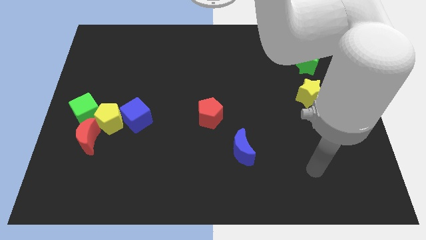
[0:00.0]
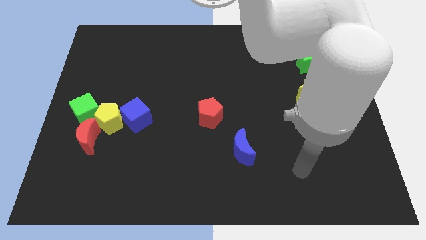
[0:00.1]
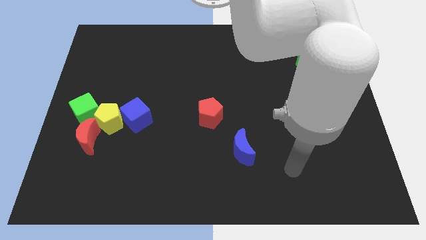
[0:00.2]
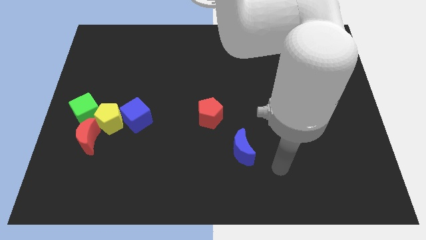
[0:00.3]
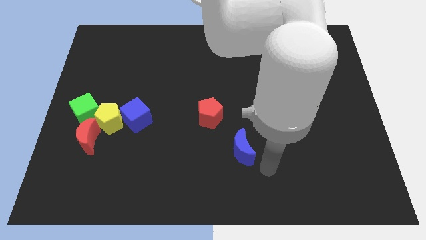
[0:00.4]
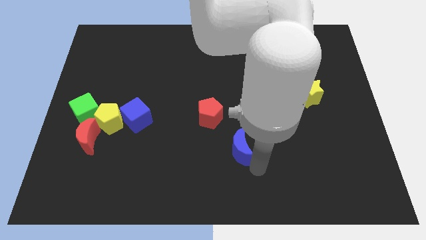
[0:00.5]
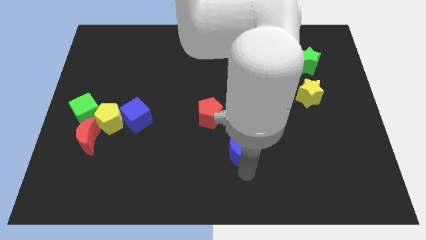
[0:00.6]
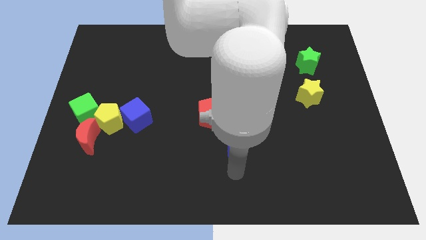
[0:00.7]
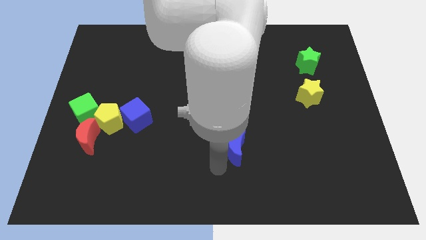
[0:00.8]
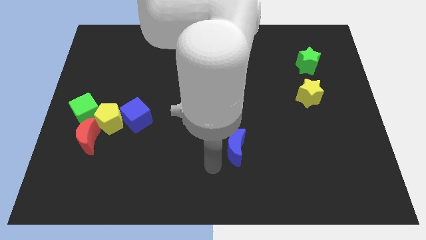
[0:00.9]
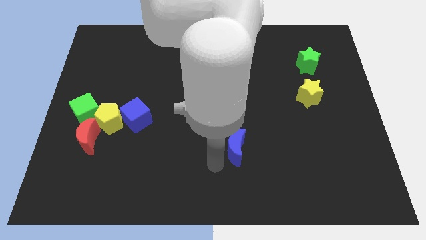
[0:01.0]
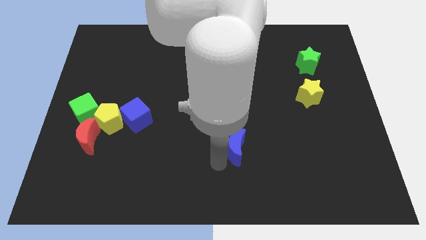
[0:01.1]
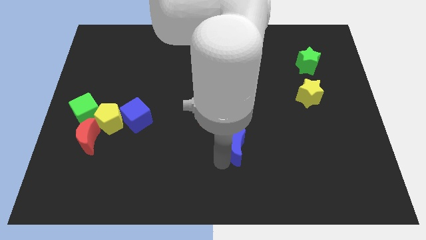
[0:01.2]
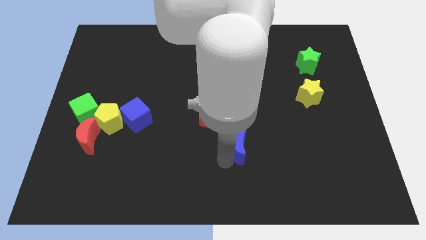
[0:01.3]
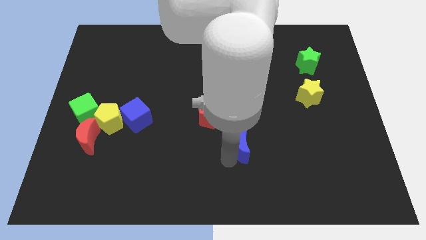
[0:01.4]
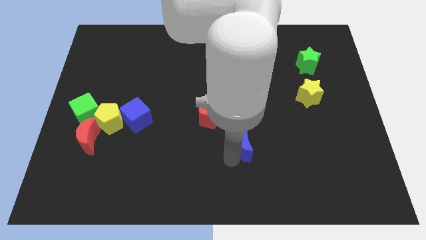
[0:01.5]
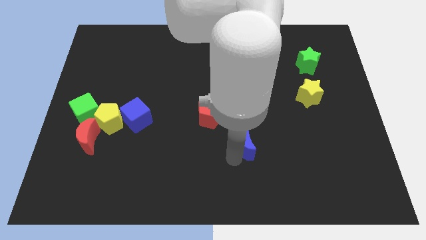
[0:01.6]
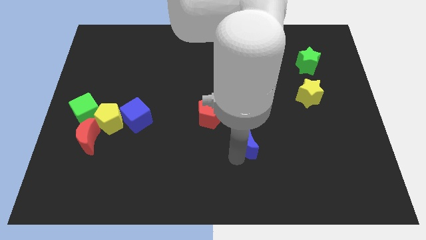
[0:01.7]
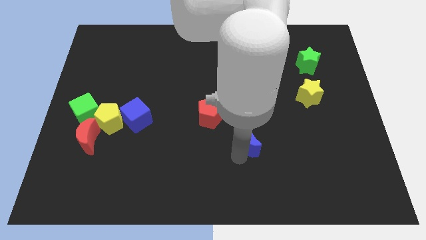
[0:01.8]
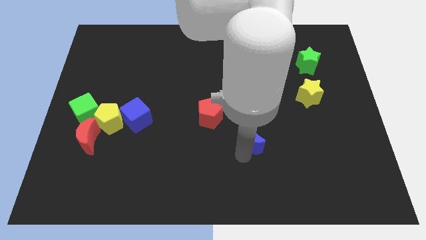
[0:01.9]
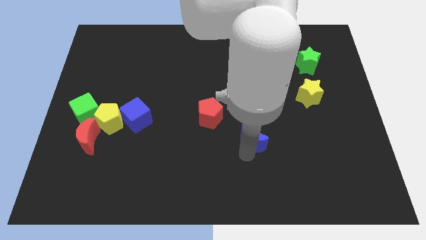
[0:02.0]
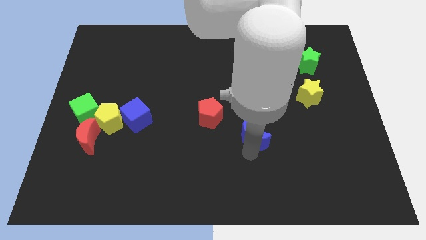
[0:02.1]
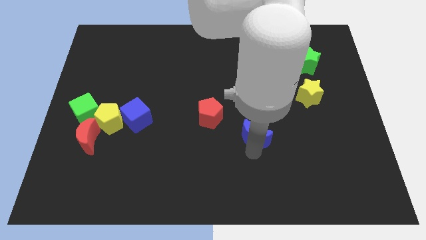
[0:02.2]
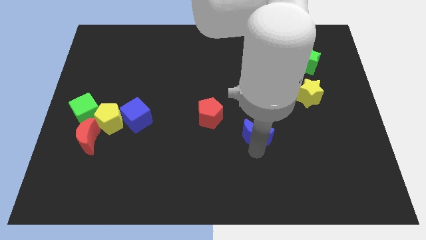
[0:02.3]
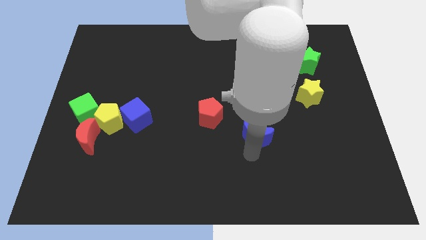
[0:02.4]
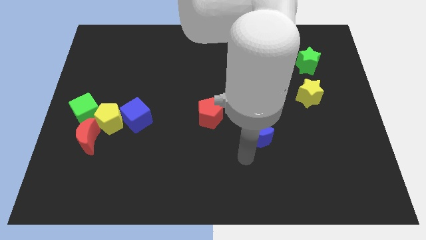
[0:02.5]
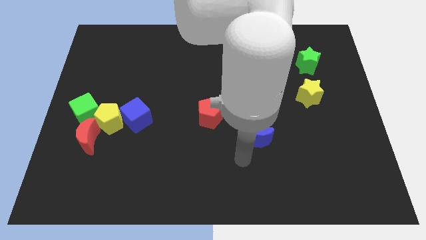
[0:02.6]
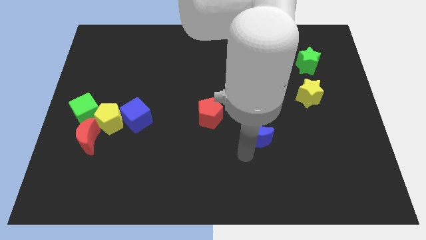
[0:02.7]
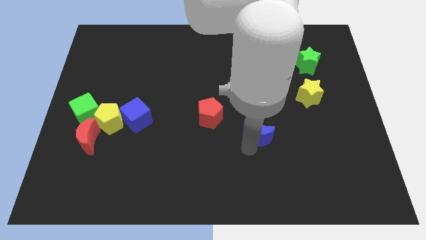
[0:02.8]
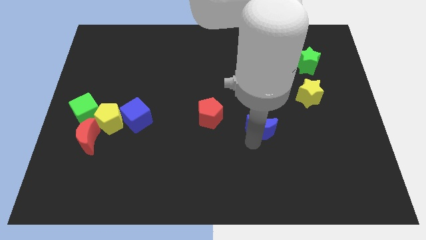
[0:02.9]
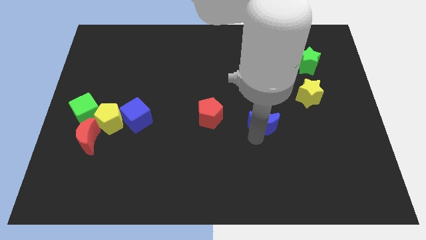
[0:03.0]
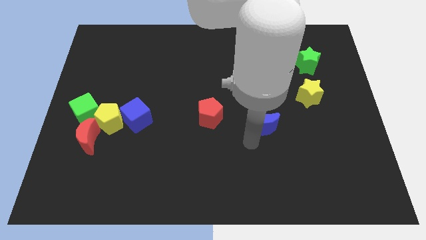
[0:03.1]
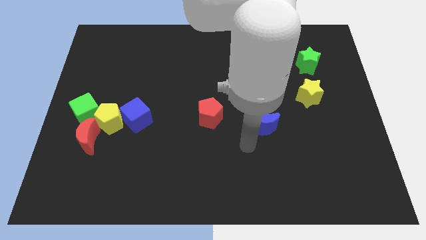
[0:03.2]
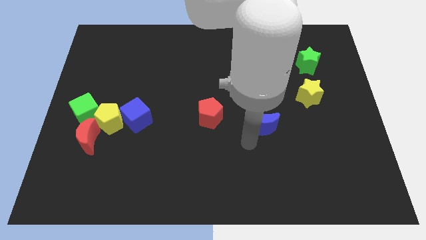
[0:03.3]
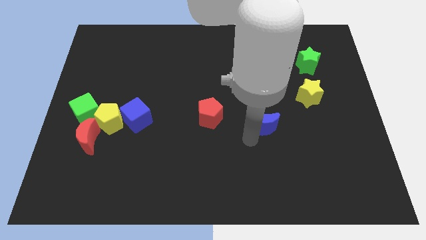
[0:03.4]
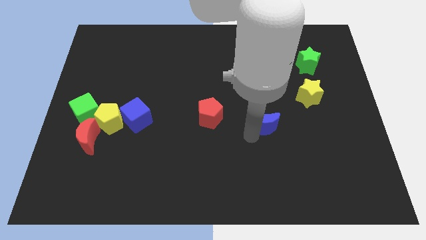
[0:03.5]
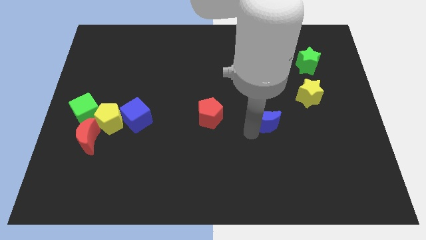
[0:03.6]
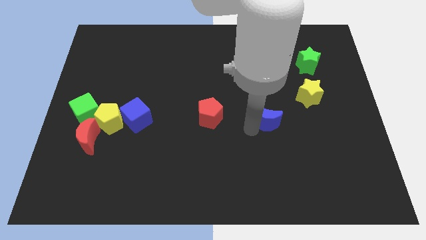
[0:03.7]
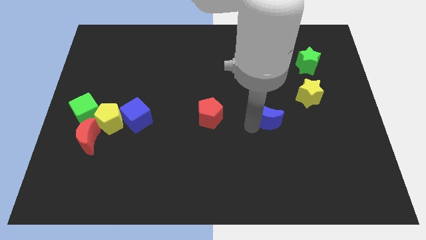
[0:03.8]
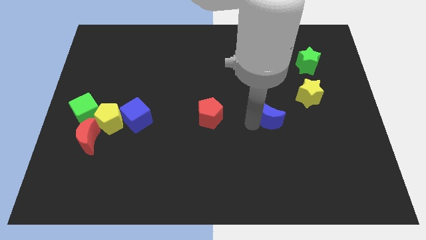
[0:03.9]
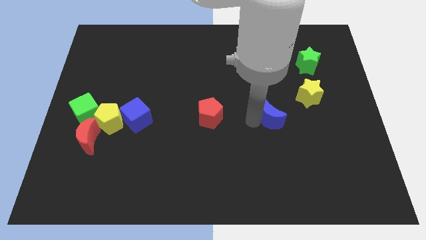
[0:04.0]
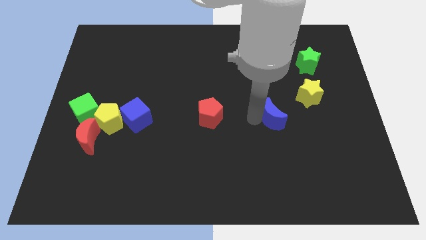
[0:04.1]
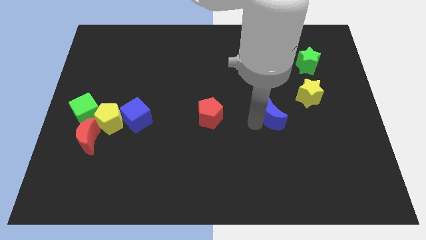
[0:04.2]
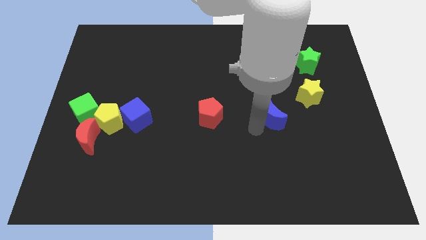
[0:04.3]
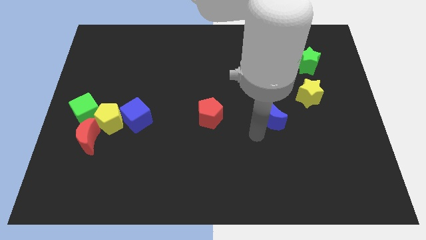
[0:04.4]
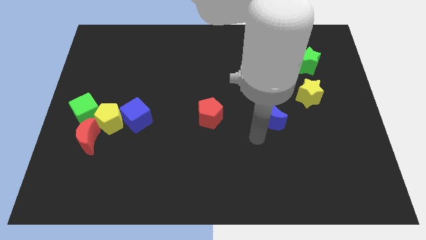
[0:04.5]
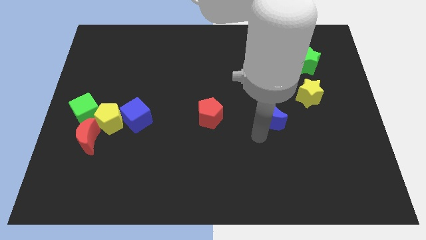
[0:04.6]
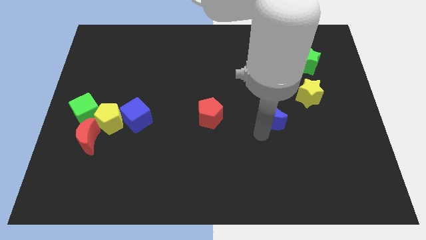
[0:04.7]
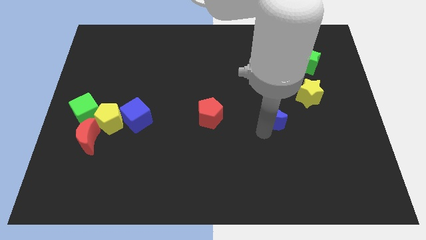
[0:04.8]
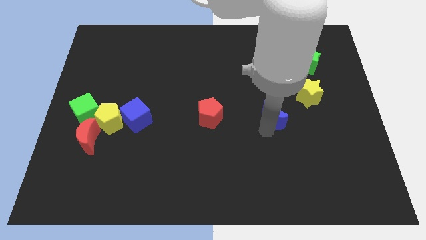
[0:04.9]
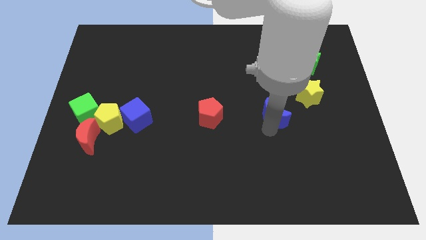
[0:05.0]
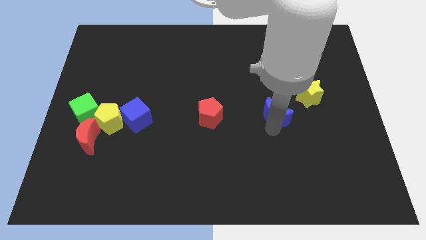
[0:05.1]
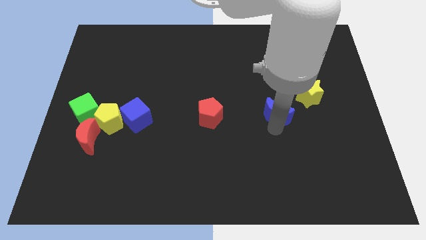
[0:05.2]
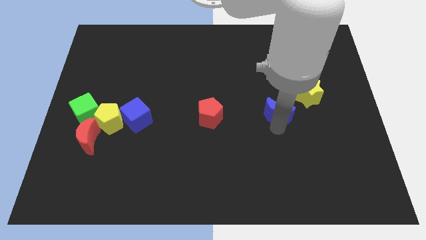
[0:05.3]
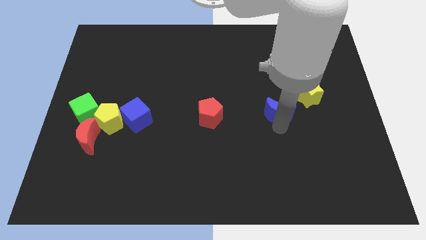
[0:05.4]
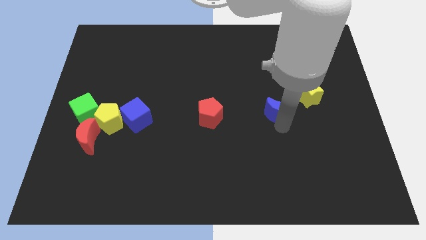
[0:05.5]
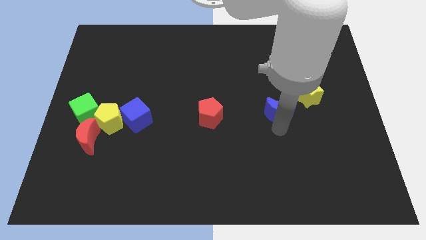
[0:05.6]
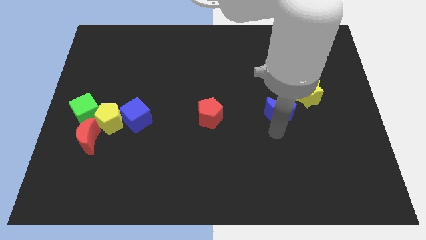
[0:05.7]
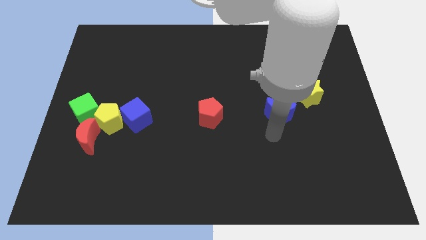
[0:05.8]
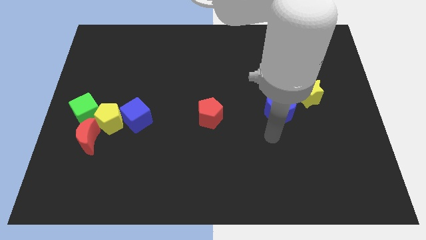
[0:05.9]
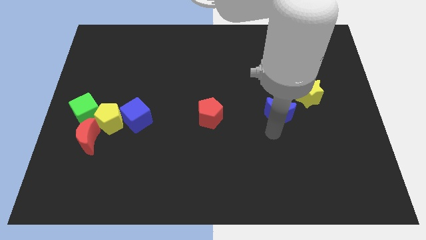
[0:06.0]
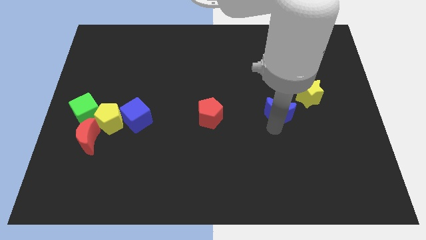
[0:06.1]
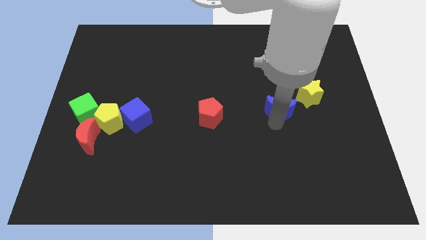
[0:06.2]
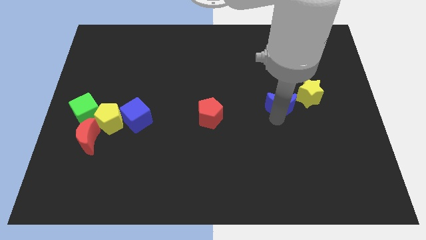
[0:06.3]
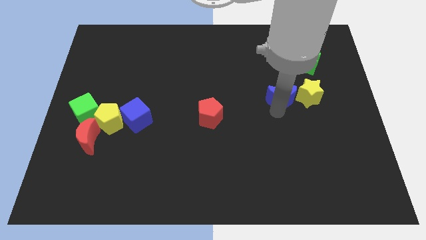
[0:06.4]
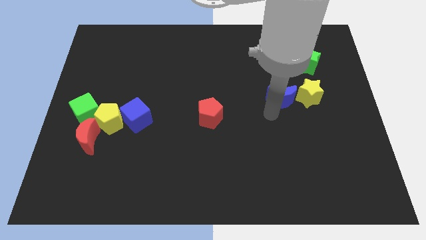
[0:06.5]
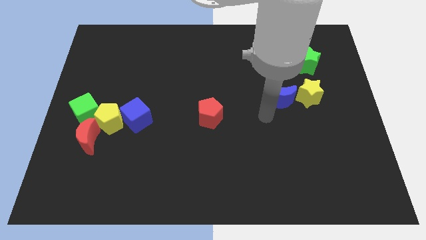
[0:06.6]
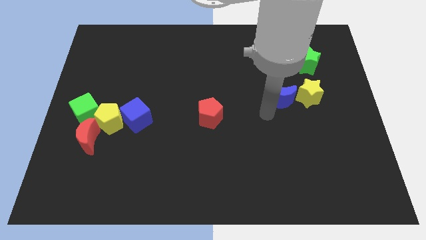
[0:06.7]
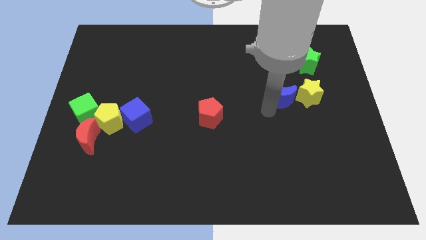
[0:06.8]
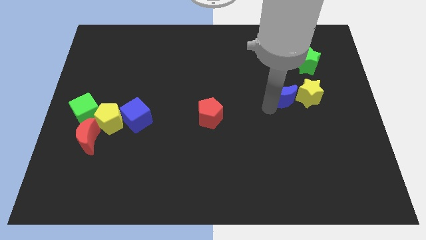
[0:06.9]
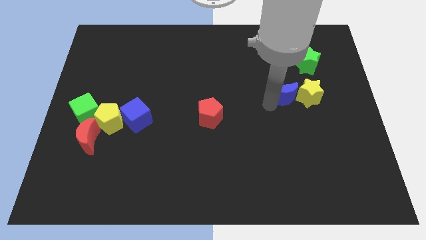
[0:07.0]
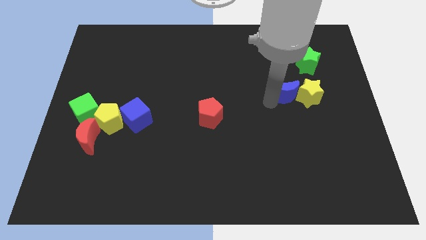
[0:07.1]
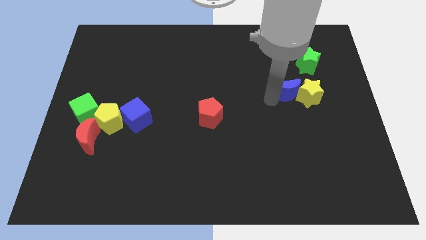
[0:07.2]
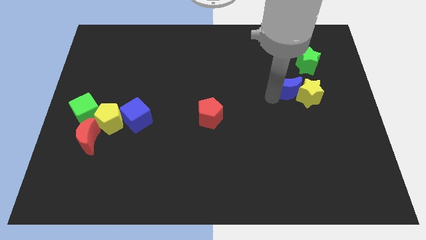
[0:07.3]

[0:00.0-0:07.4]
push the blue moon up and then right

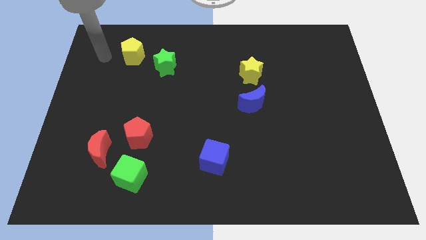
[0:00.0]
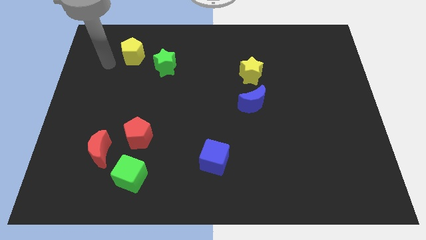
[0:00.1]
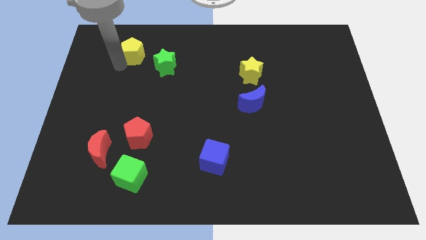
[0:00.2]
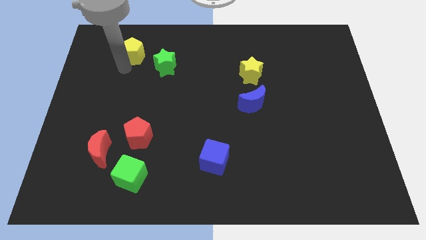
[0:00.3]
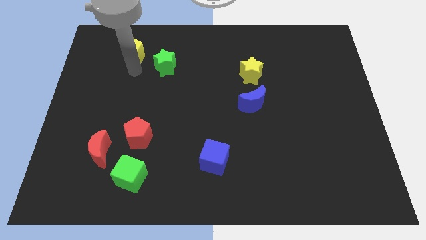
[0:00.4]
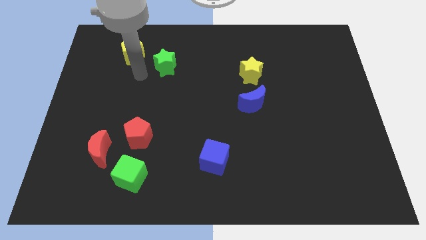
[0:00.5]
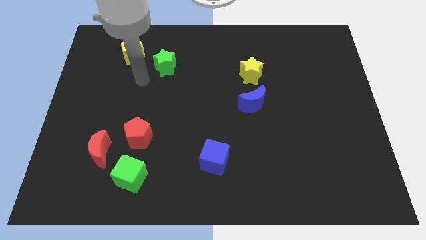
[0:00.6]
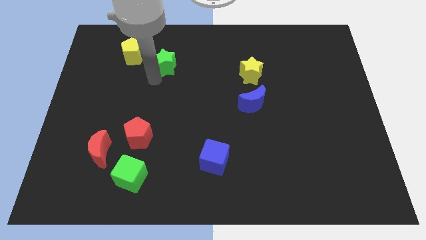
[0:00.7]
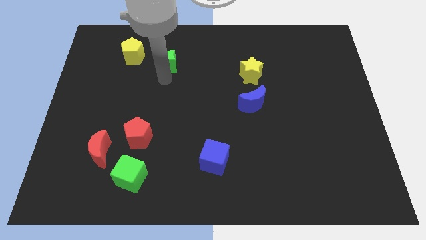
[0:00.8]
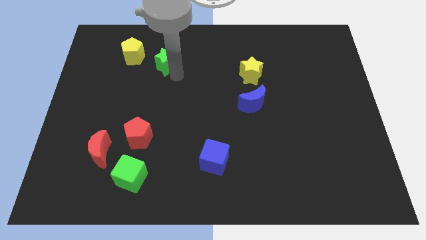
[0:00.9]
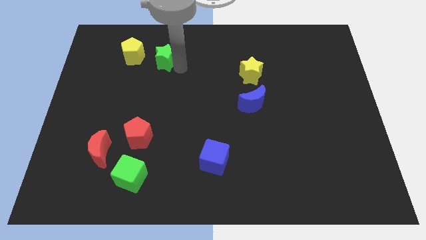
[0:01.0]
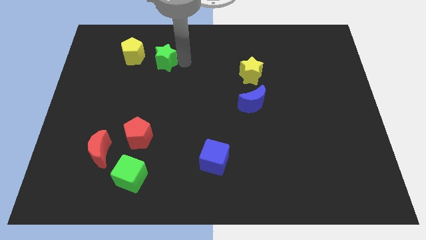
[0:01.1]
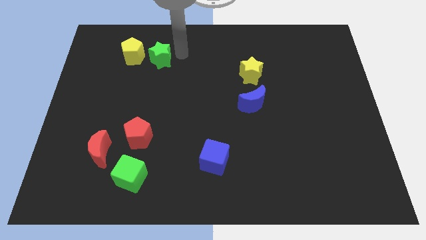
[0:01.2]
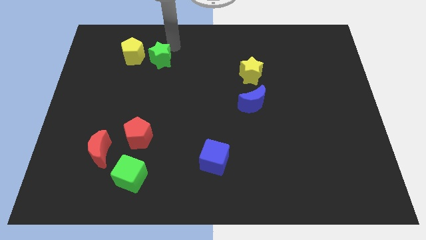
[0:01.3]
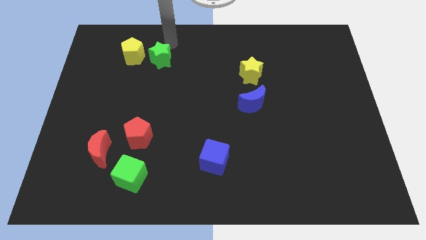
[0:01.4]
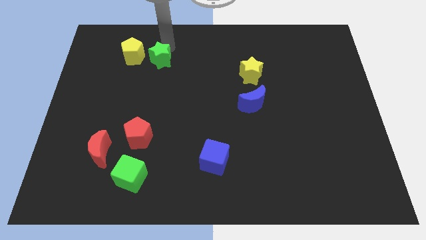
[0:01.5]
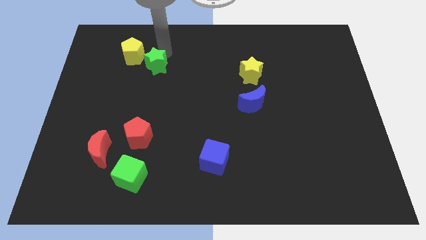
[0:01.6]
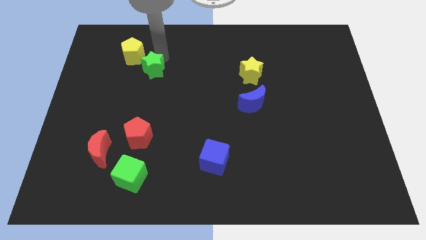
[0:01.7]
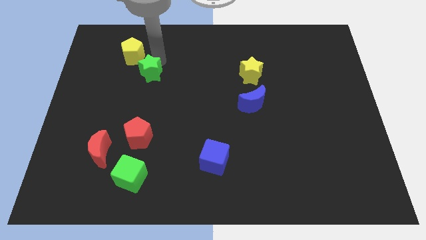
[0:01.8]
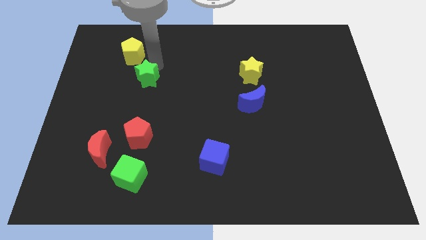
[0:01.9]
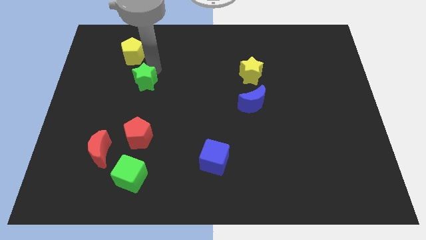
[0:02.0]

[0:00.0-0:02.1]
move the green star diagonally downwards and left a little
